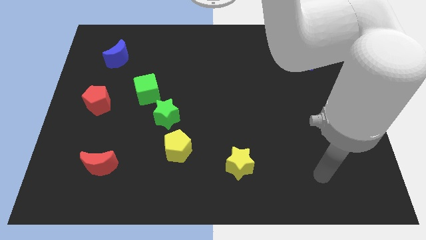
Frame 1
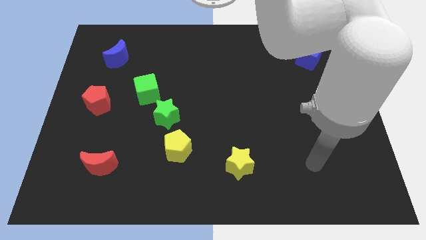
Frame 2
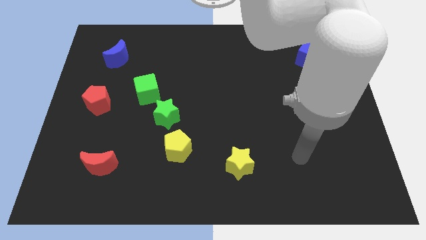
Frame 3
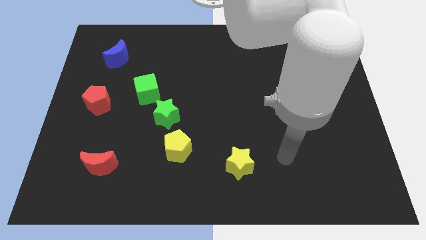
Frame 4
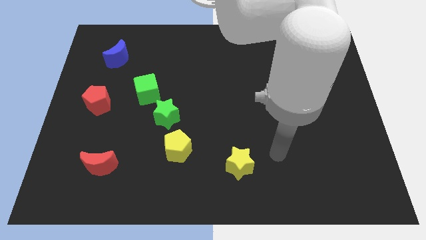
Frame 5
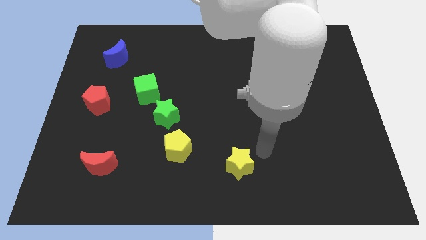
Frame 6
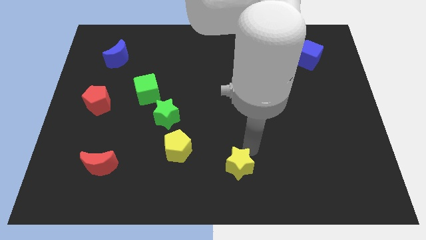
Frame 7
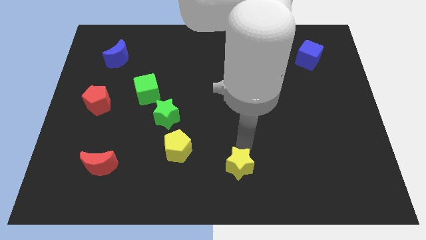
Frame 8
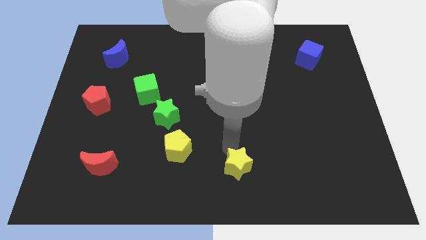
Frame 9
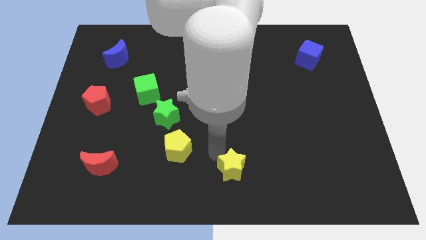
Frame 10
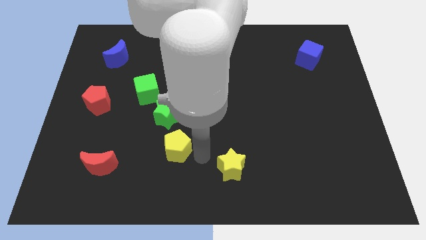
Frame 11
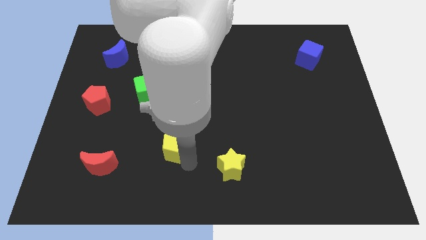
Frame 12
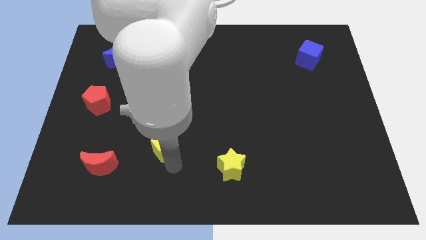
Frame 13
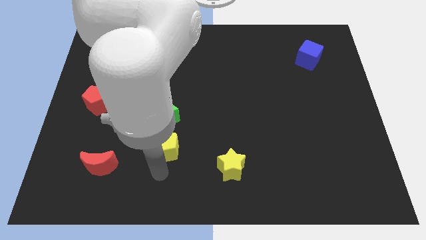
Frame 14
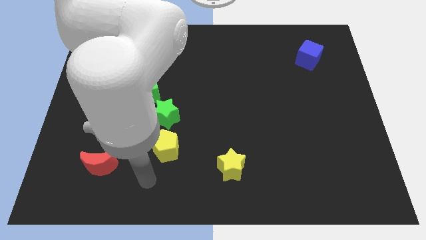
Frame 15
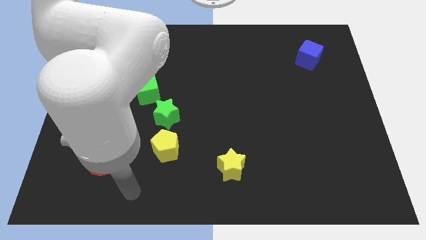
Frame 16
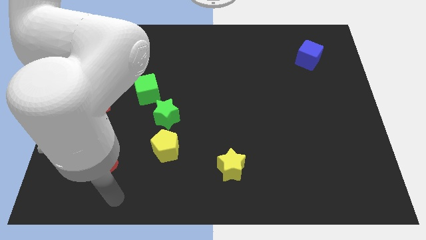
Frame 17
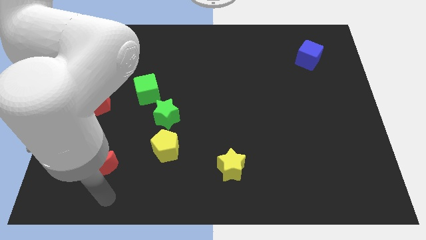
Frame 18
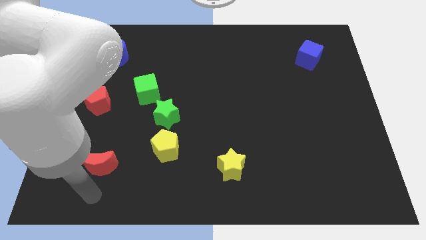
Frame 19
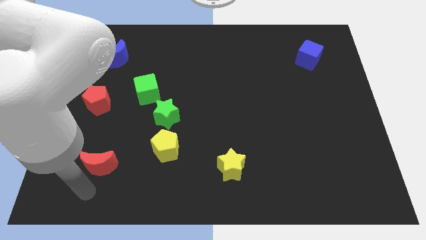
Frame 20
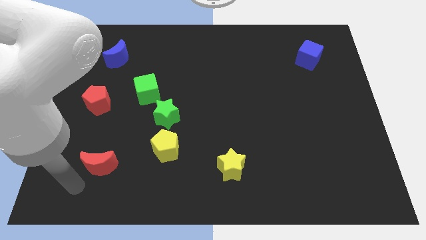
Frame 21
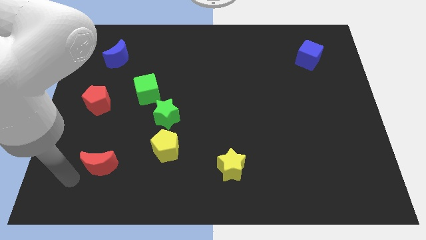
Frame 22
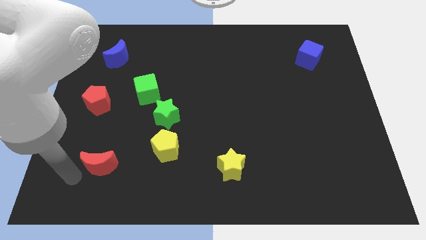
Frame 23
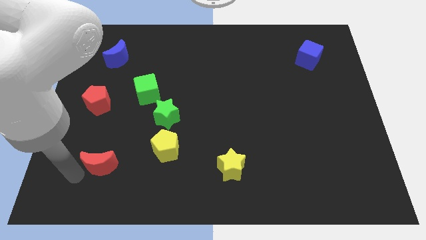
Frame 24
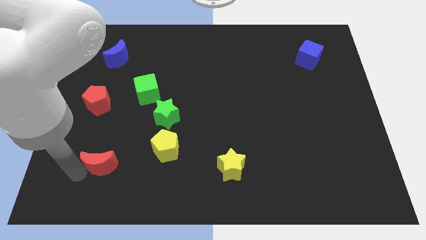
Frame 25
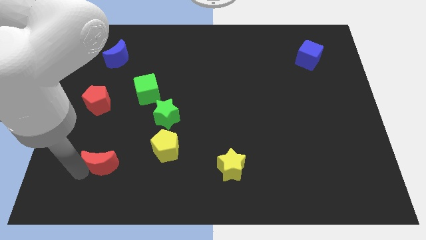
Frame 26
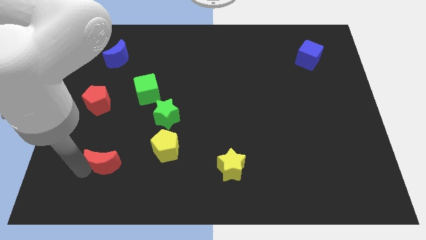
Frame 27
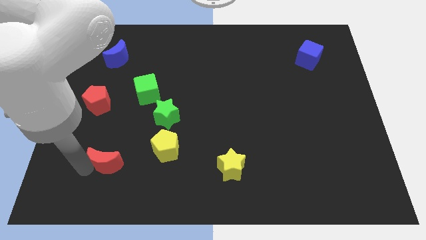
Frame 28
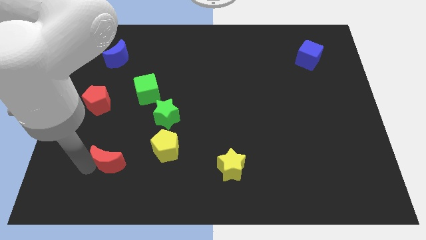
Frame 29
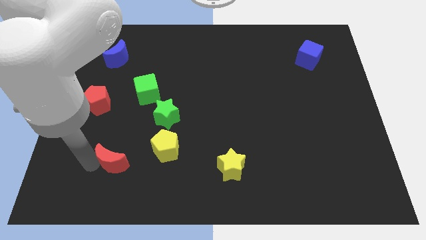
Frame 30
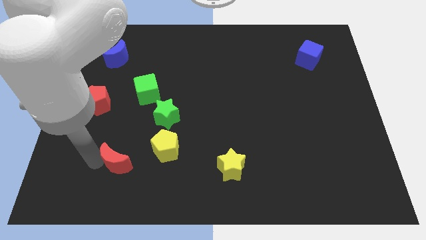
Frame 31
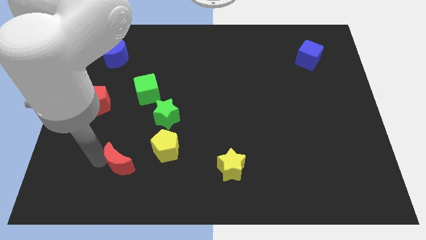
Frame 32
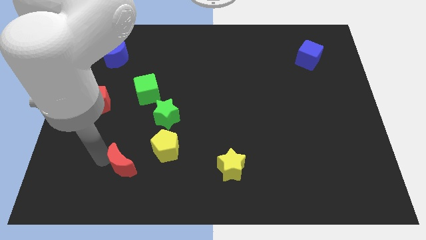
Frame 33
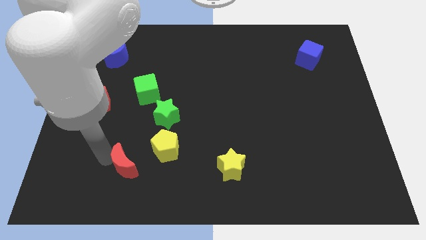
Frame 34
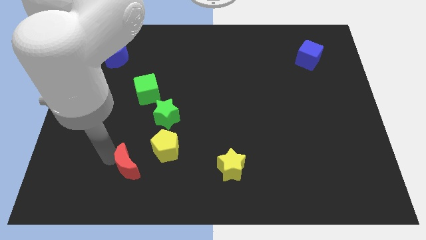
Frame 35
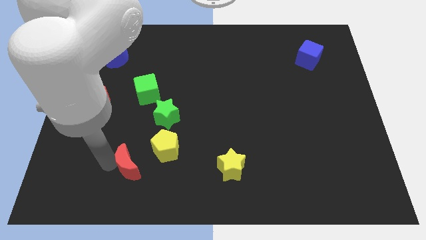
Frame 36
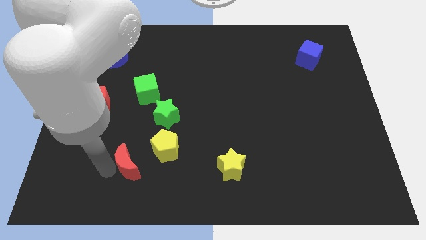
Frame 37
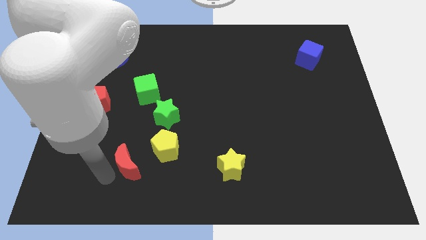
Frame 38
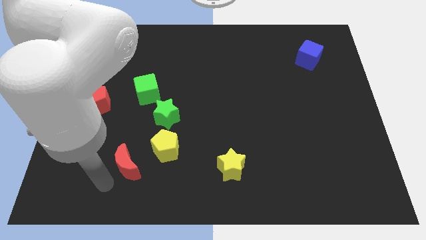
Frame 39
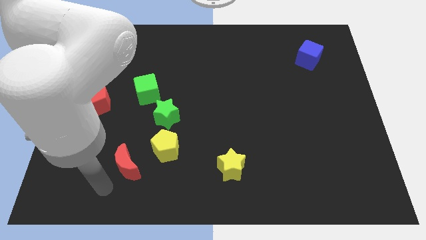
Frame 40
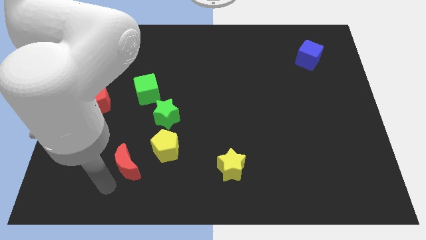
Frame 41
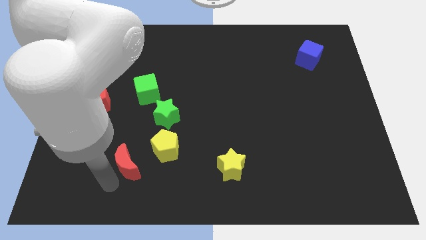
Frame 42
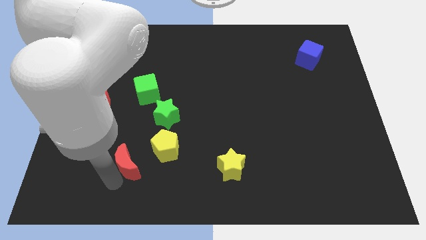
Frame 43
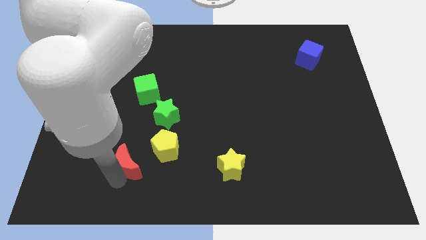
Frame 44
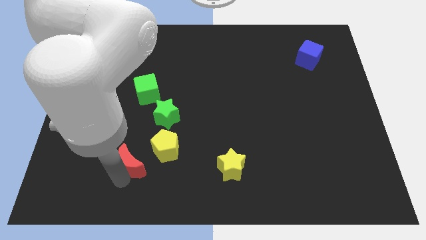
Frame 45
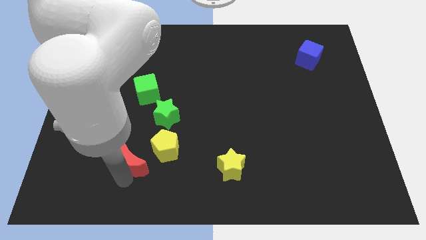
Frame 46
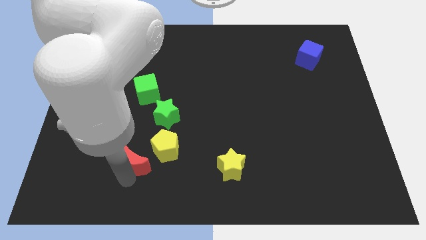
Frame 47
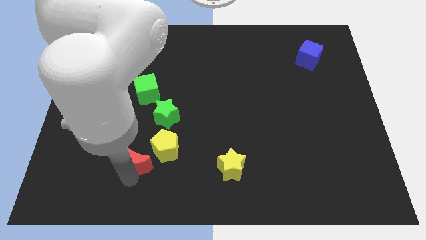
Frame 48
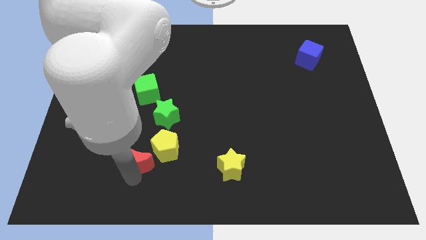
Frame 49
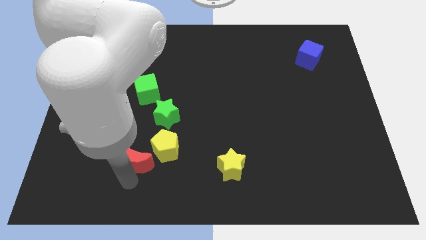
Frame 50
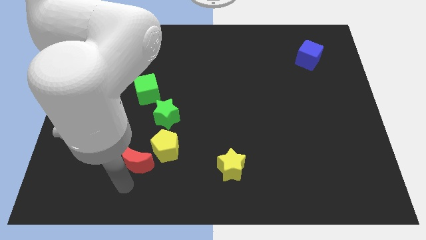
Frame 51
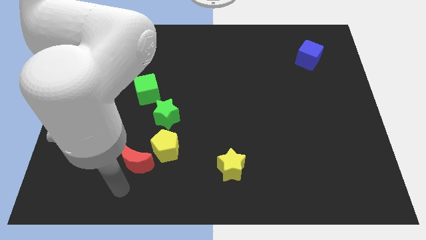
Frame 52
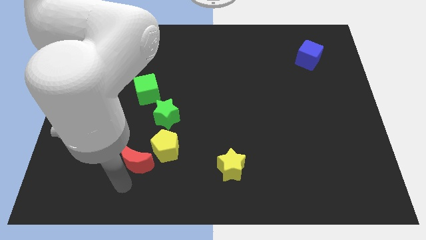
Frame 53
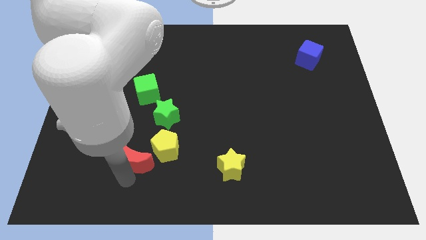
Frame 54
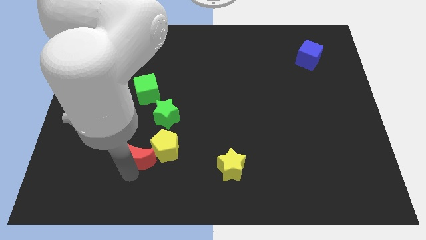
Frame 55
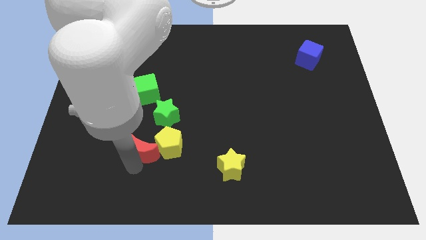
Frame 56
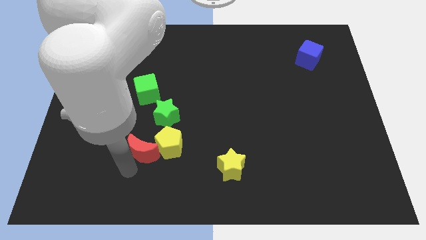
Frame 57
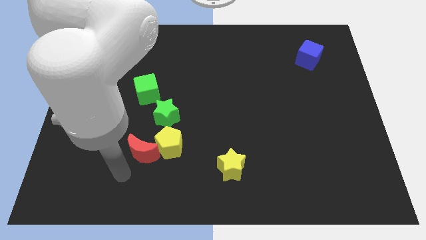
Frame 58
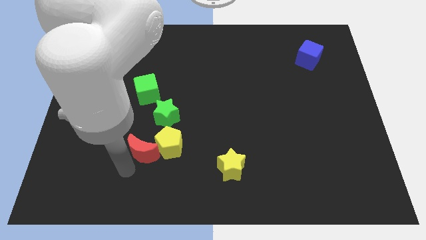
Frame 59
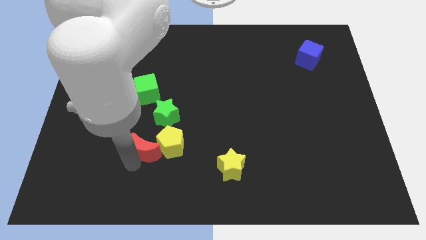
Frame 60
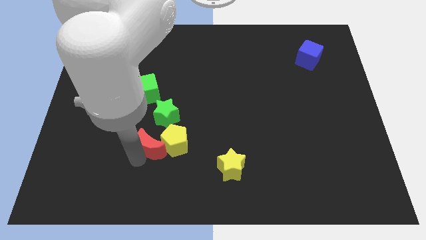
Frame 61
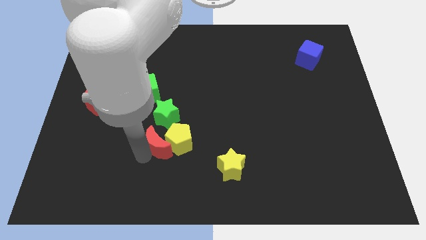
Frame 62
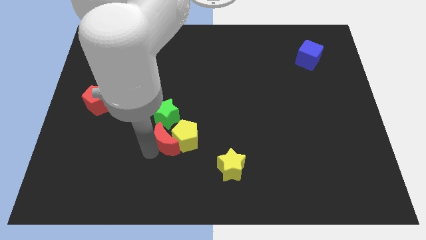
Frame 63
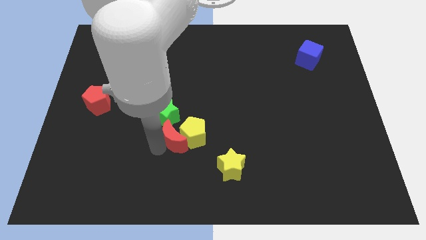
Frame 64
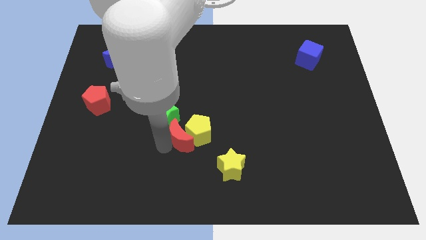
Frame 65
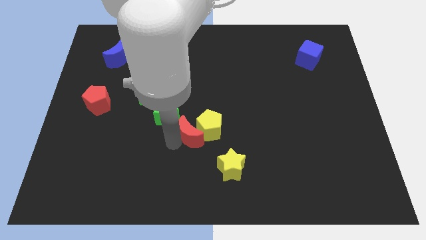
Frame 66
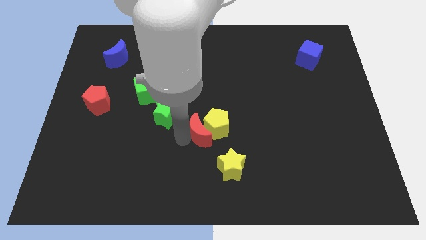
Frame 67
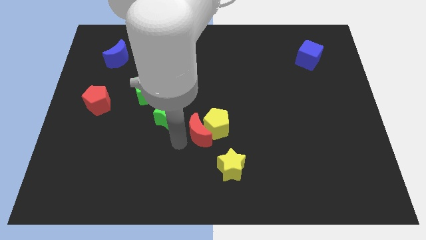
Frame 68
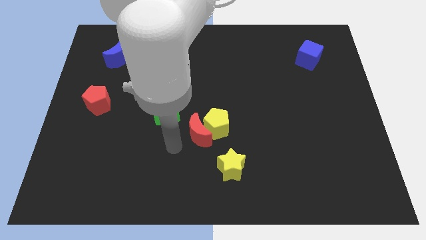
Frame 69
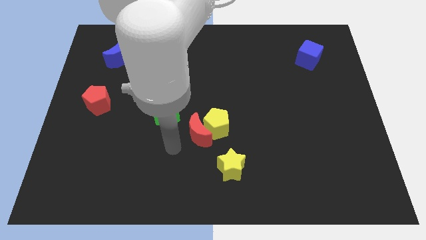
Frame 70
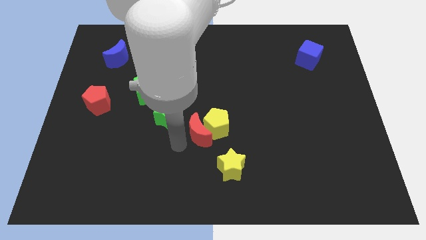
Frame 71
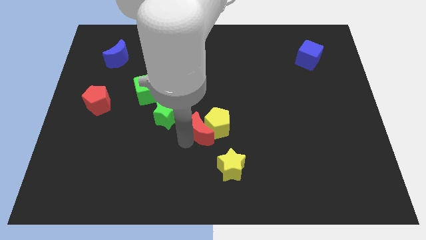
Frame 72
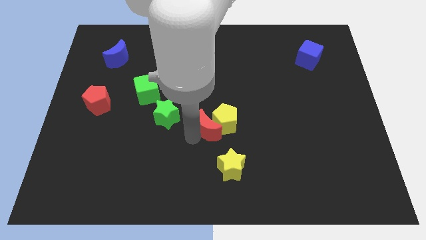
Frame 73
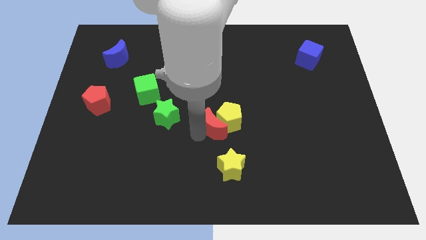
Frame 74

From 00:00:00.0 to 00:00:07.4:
push the red moon above the yellow star

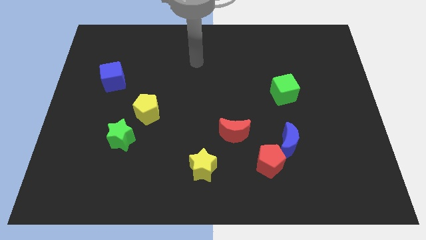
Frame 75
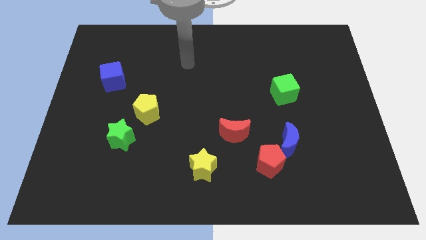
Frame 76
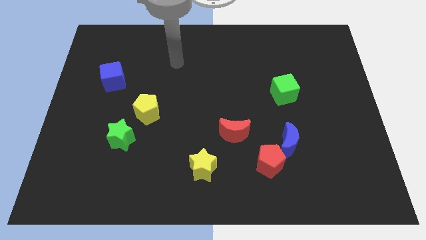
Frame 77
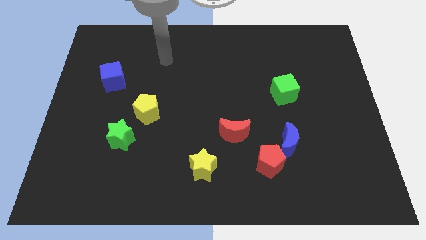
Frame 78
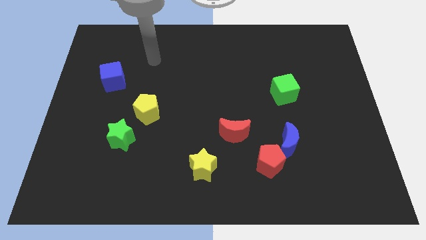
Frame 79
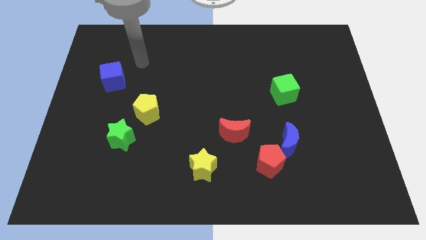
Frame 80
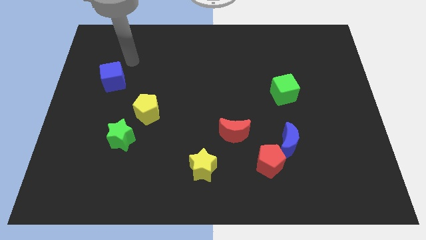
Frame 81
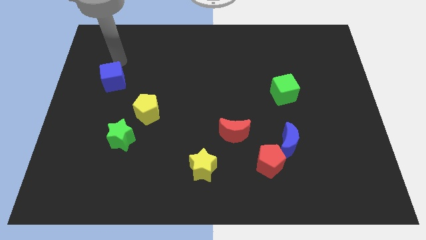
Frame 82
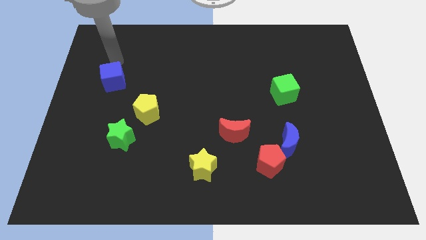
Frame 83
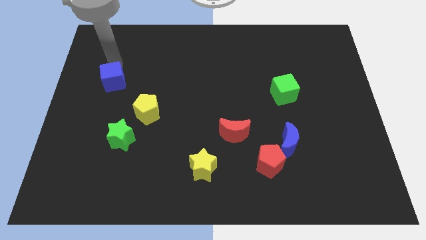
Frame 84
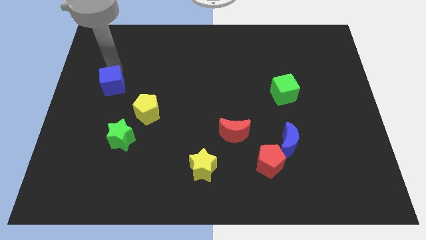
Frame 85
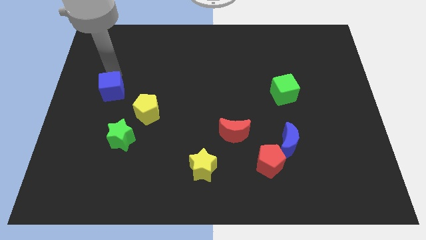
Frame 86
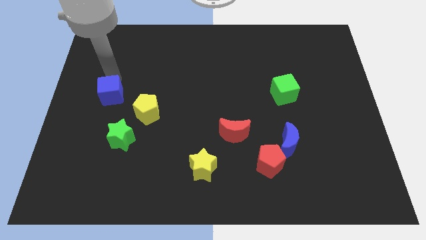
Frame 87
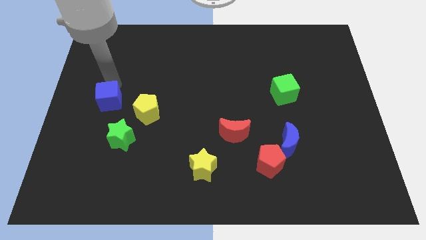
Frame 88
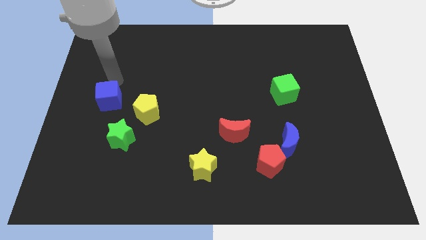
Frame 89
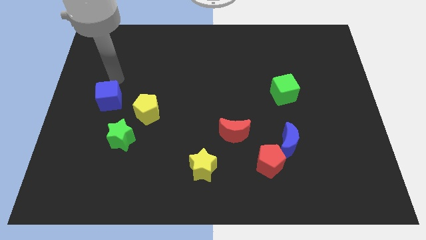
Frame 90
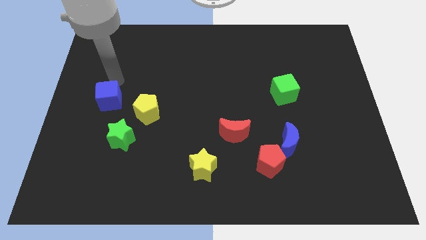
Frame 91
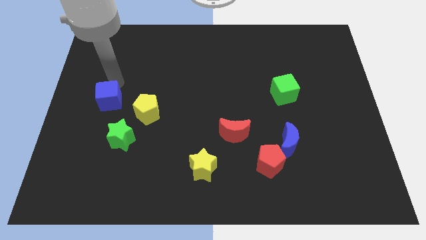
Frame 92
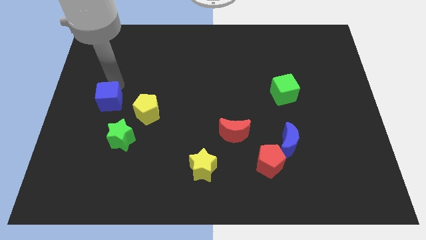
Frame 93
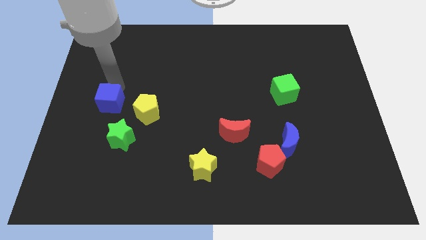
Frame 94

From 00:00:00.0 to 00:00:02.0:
push the blue cube diagonally up and to the left of the green star
